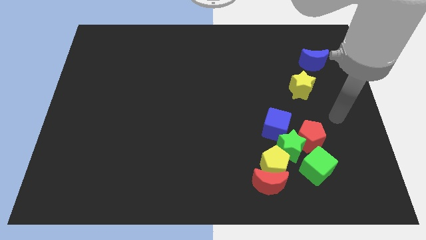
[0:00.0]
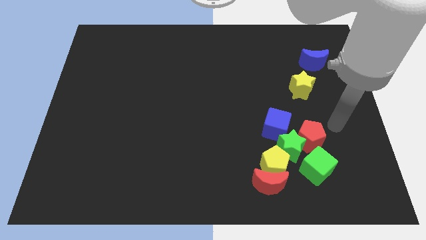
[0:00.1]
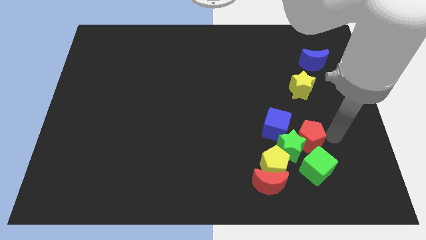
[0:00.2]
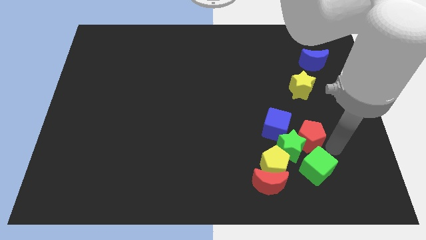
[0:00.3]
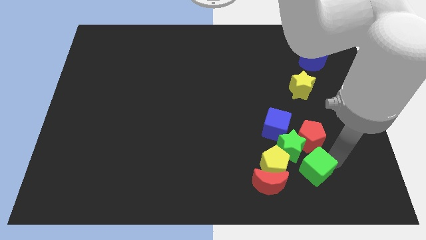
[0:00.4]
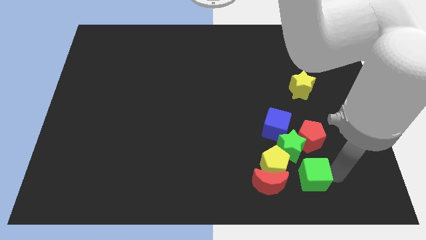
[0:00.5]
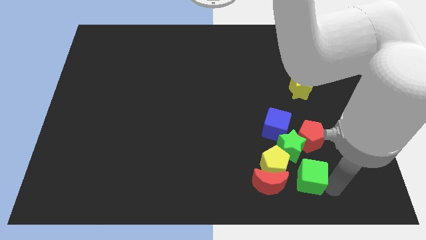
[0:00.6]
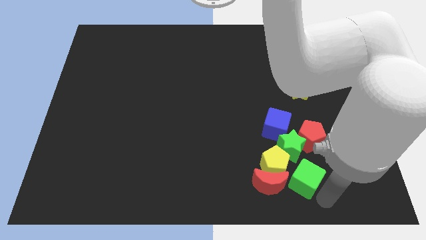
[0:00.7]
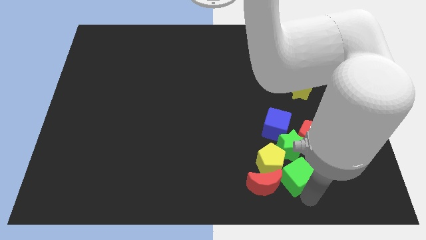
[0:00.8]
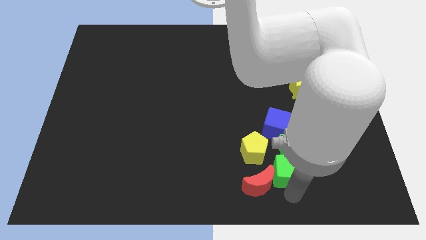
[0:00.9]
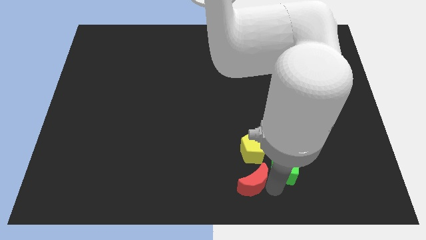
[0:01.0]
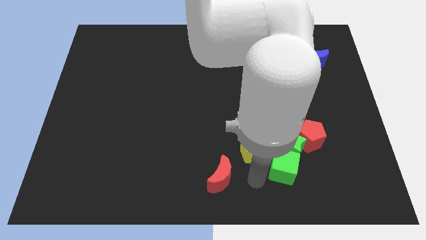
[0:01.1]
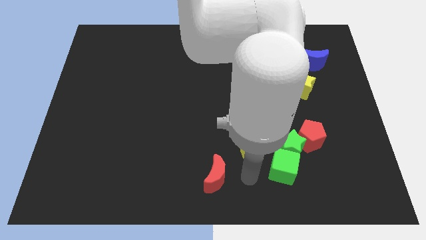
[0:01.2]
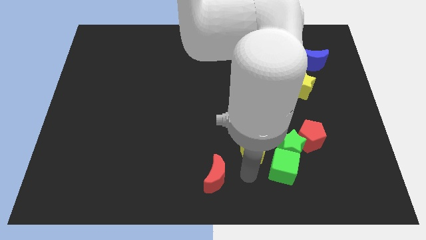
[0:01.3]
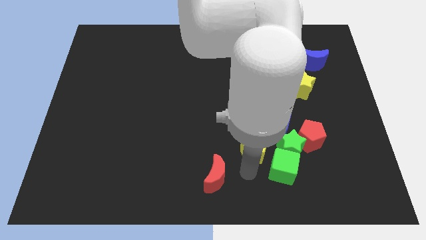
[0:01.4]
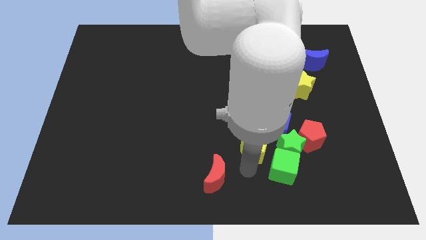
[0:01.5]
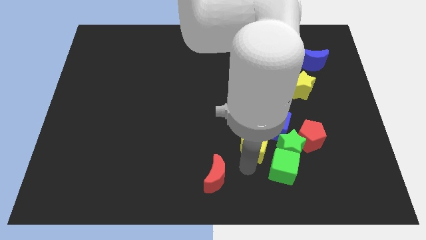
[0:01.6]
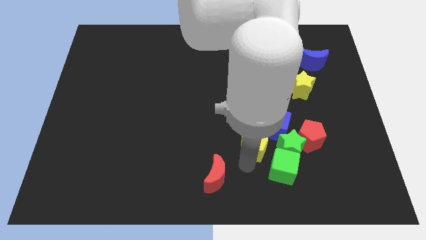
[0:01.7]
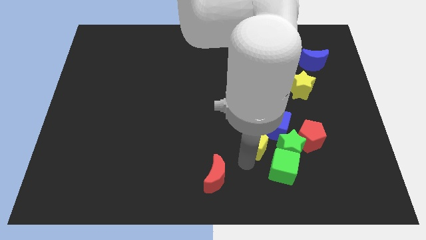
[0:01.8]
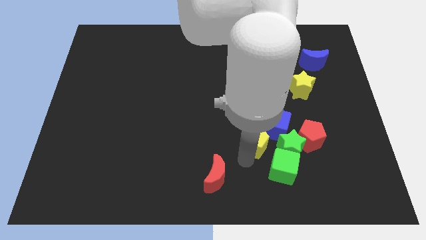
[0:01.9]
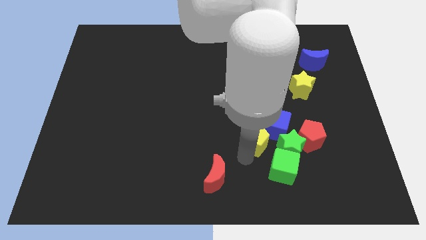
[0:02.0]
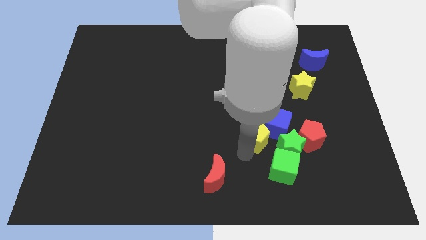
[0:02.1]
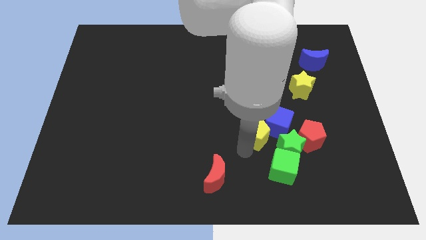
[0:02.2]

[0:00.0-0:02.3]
push the yellow pentagon a bit upwards

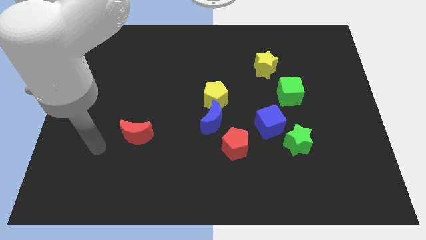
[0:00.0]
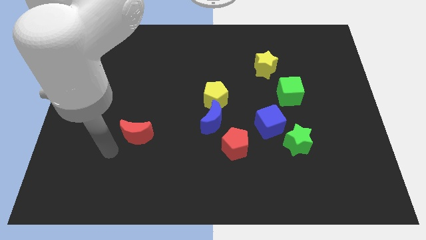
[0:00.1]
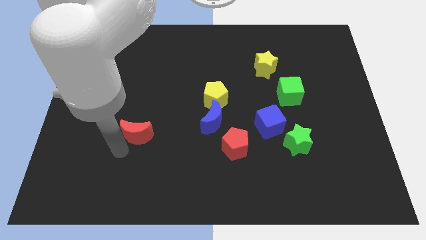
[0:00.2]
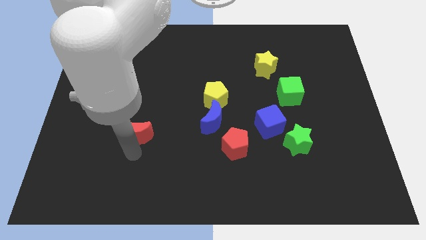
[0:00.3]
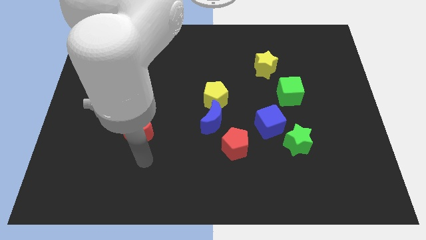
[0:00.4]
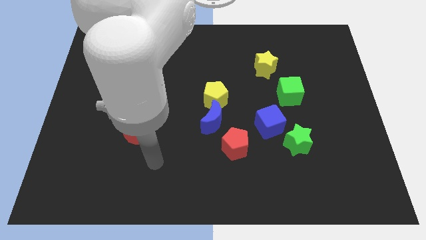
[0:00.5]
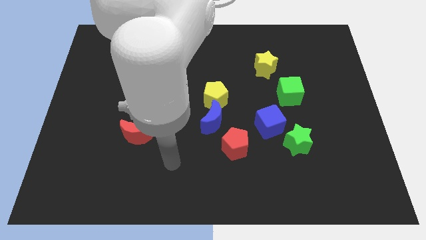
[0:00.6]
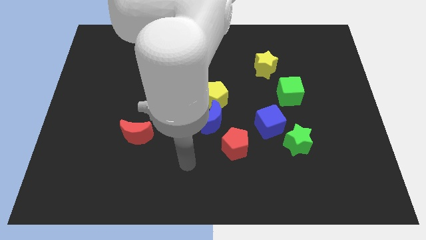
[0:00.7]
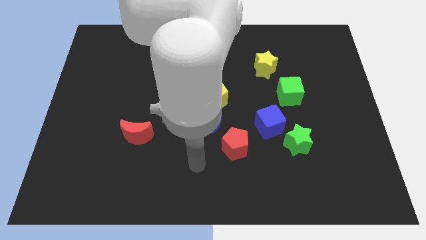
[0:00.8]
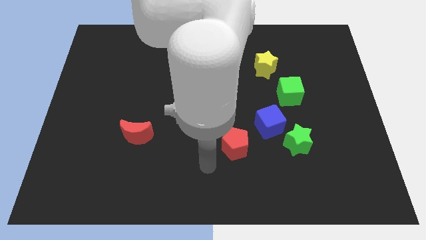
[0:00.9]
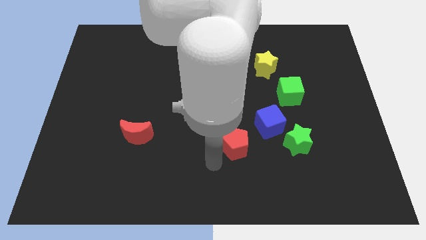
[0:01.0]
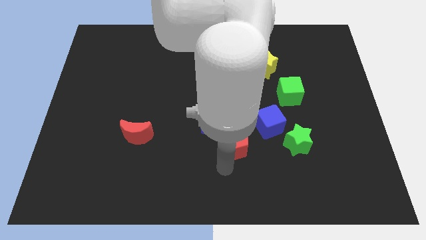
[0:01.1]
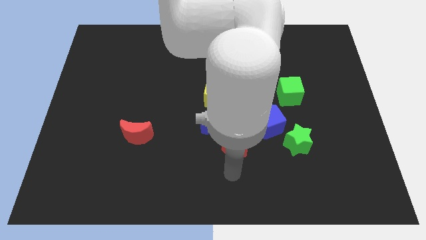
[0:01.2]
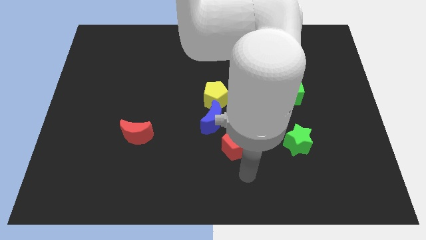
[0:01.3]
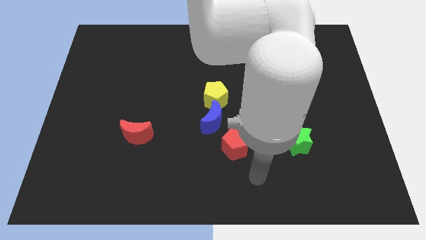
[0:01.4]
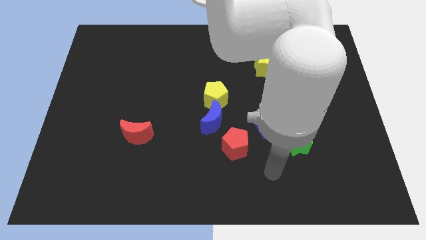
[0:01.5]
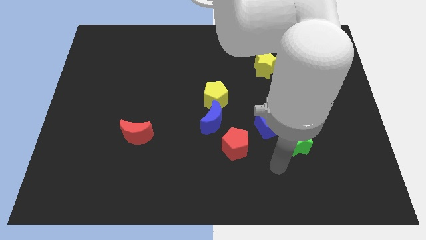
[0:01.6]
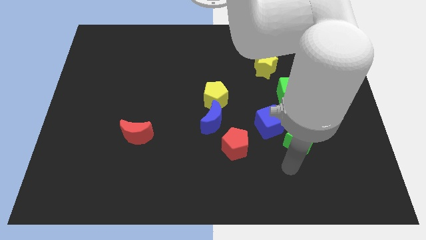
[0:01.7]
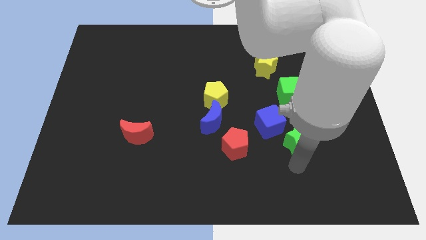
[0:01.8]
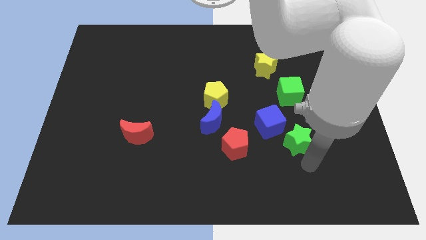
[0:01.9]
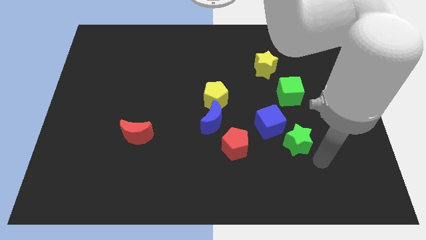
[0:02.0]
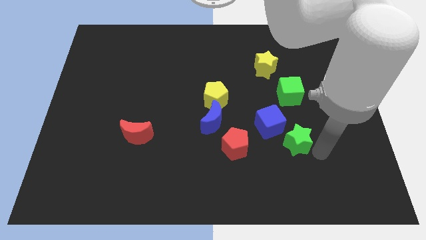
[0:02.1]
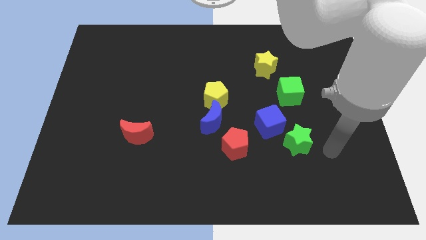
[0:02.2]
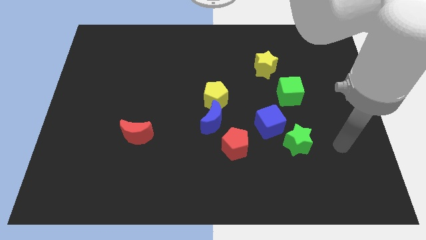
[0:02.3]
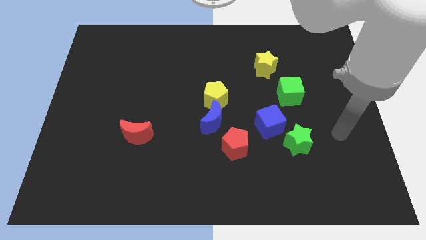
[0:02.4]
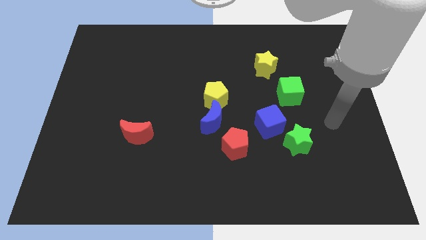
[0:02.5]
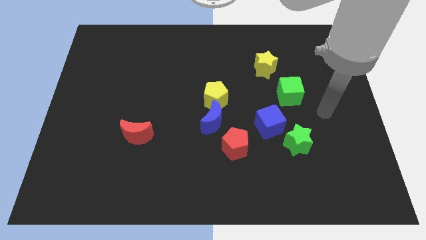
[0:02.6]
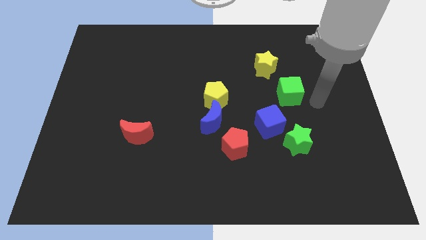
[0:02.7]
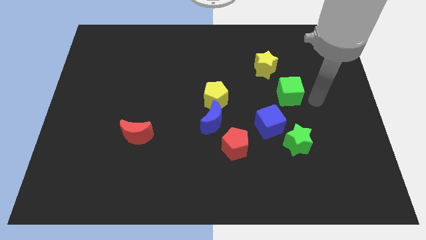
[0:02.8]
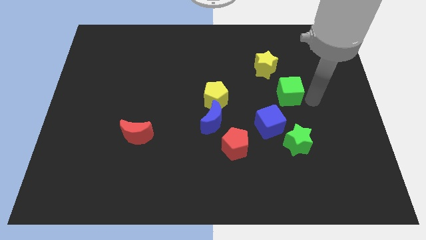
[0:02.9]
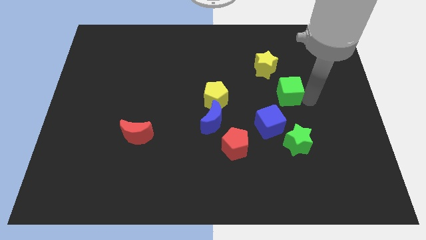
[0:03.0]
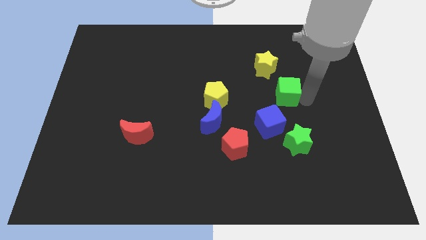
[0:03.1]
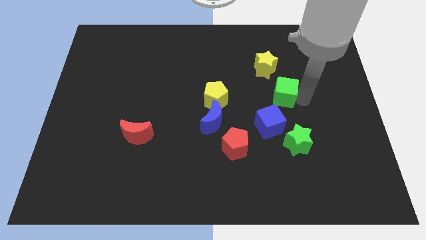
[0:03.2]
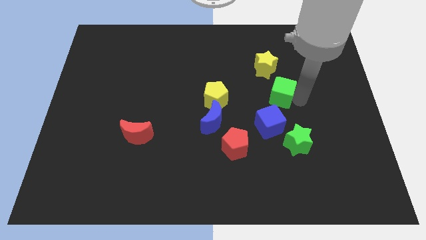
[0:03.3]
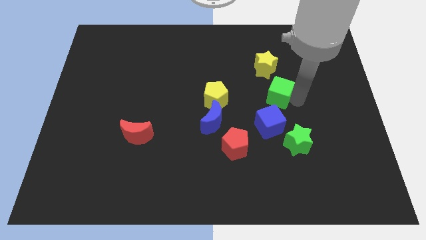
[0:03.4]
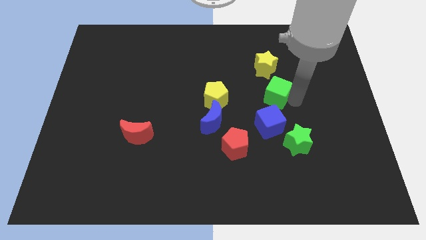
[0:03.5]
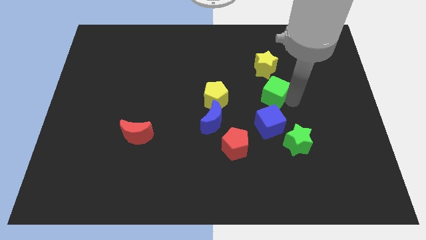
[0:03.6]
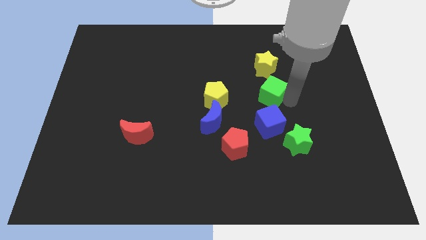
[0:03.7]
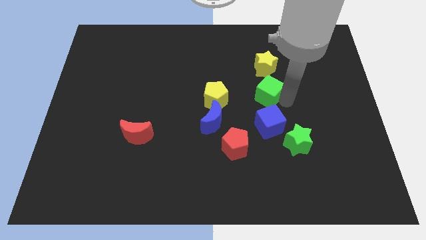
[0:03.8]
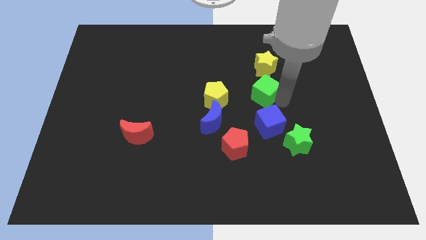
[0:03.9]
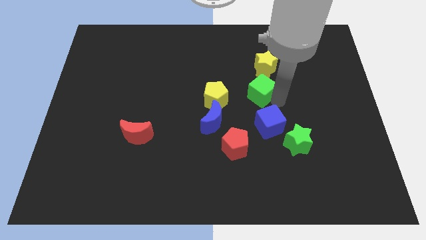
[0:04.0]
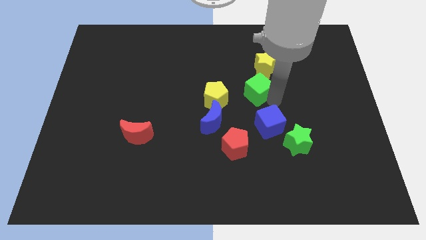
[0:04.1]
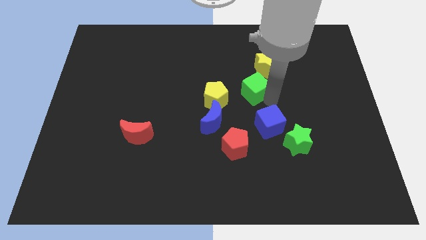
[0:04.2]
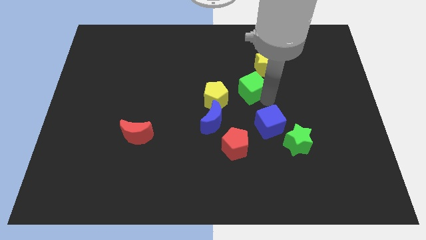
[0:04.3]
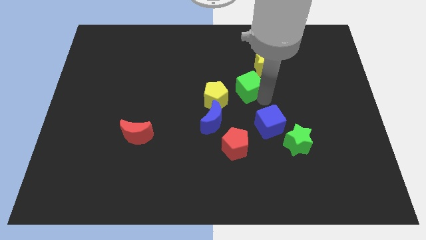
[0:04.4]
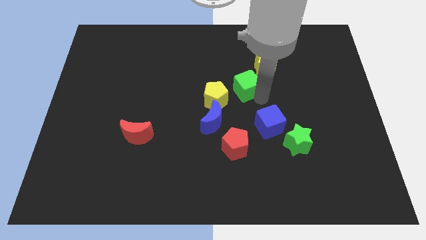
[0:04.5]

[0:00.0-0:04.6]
move the green cube upwards and left a little

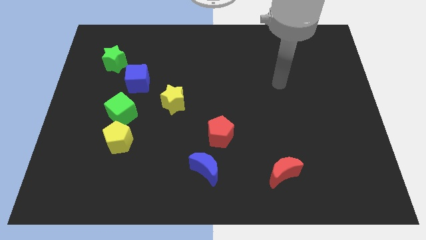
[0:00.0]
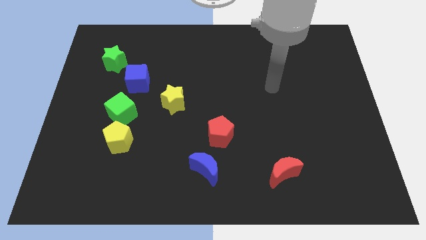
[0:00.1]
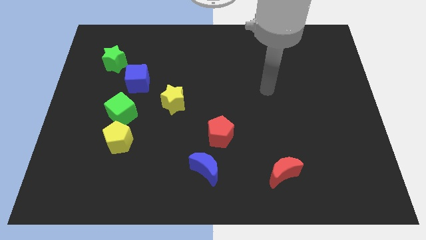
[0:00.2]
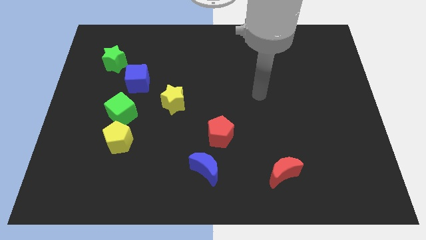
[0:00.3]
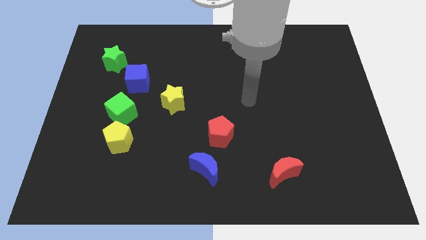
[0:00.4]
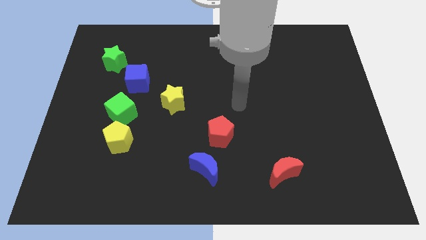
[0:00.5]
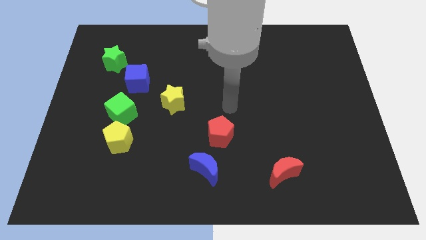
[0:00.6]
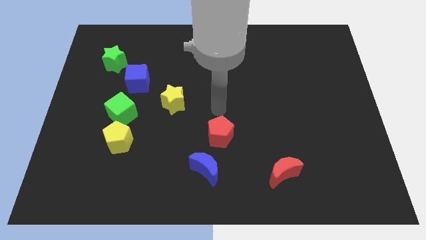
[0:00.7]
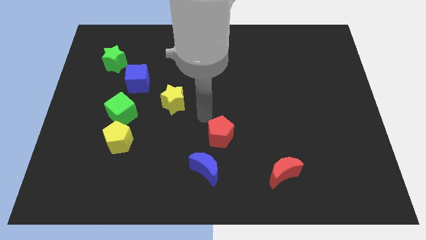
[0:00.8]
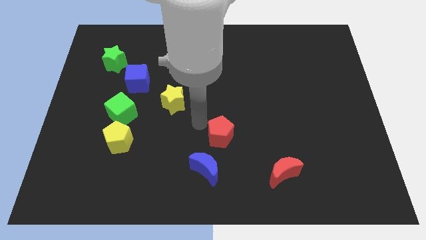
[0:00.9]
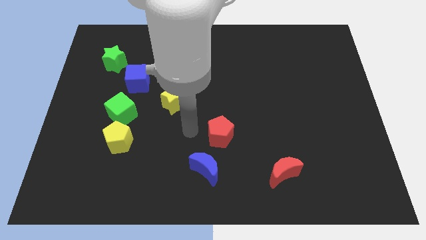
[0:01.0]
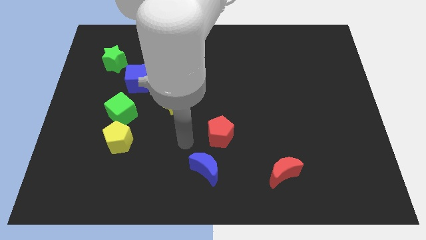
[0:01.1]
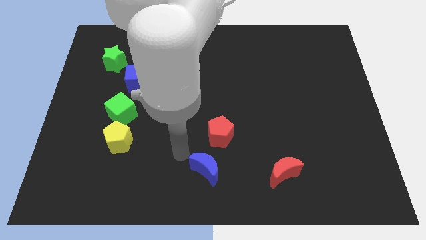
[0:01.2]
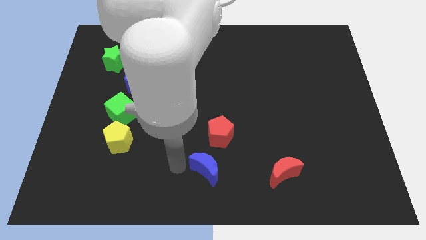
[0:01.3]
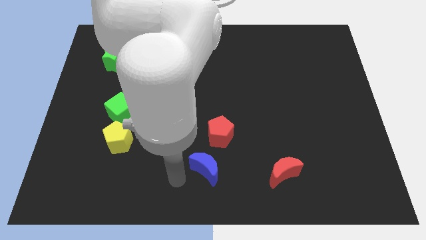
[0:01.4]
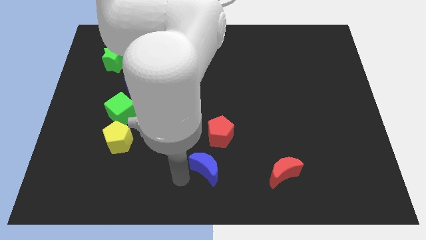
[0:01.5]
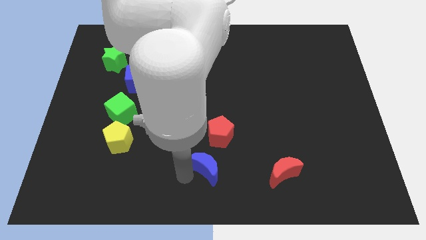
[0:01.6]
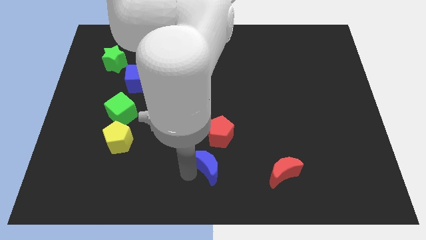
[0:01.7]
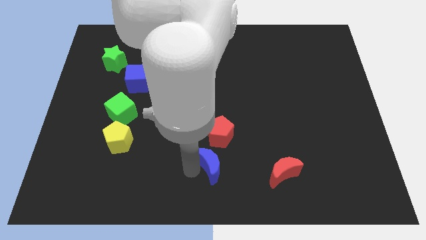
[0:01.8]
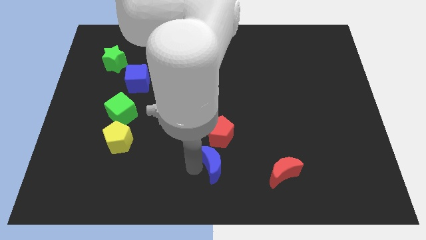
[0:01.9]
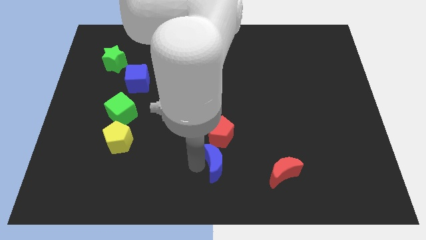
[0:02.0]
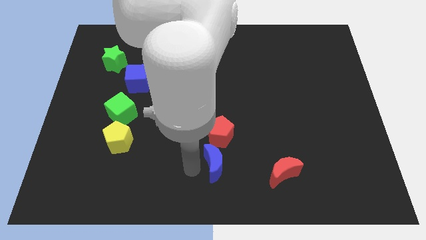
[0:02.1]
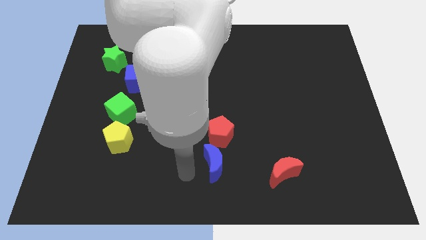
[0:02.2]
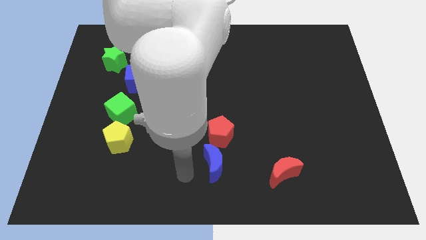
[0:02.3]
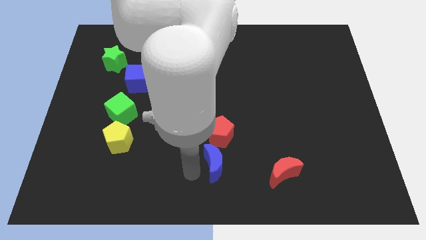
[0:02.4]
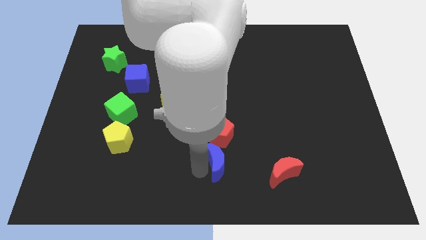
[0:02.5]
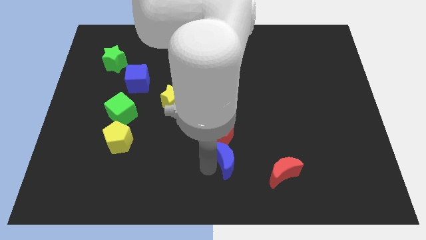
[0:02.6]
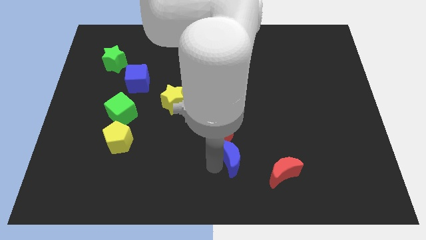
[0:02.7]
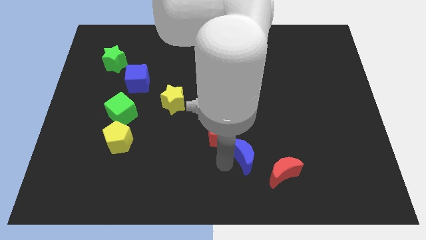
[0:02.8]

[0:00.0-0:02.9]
slightly move the blue moon up and then right
